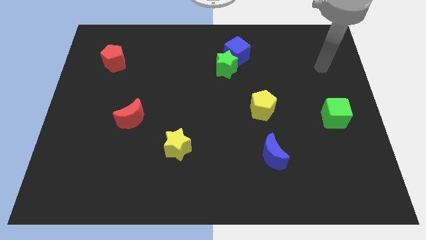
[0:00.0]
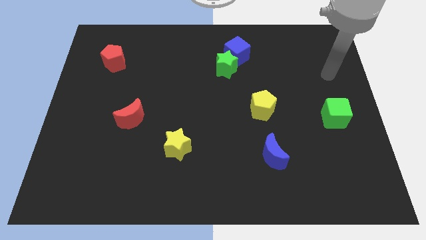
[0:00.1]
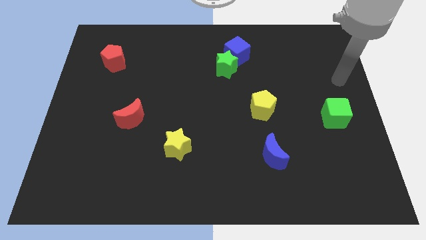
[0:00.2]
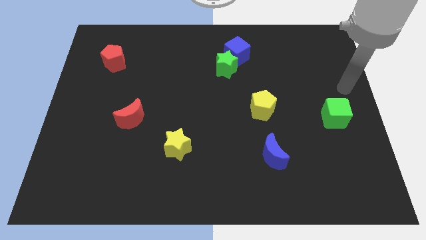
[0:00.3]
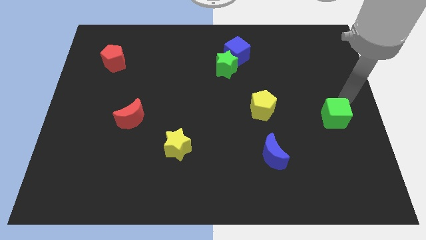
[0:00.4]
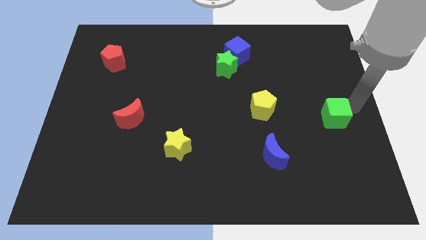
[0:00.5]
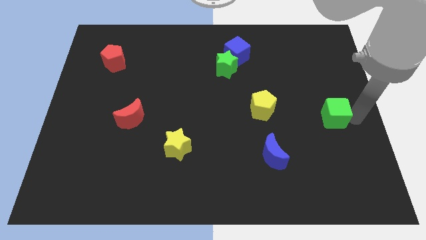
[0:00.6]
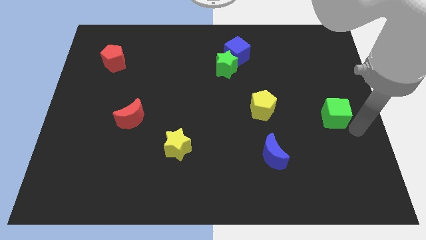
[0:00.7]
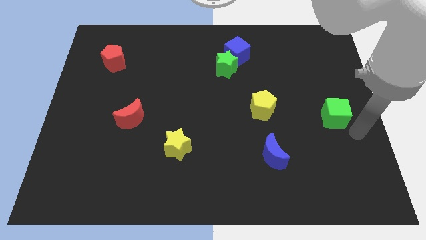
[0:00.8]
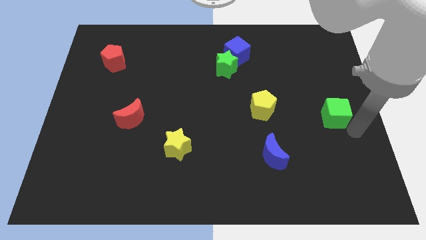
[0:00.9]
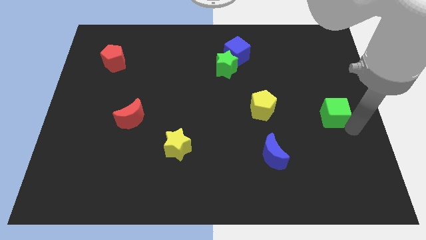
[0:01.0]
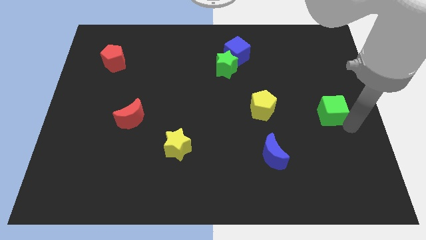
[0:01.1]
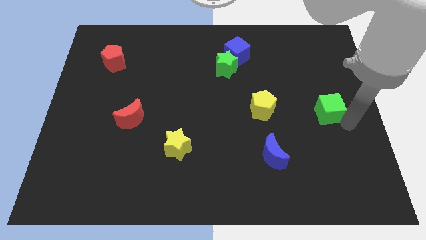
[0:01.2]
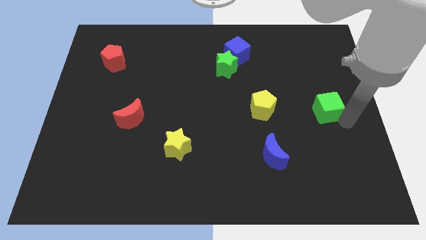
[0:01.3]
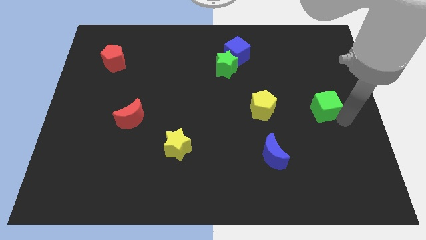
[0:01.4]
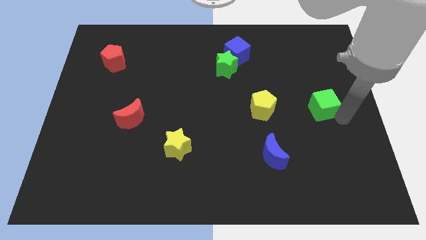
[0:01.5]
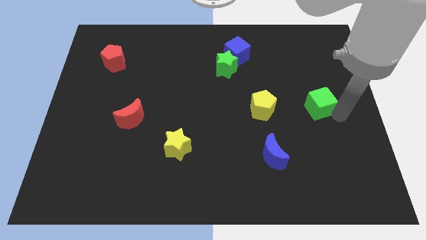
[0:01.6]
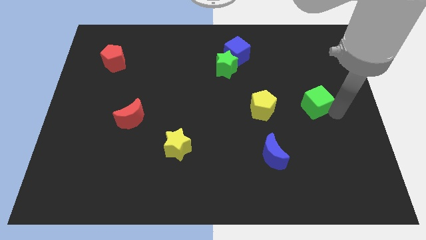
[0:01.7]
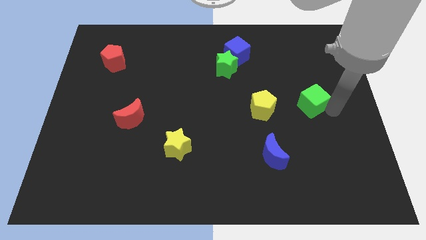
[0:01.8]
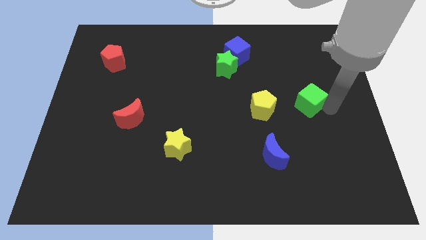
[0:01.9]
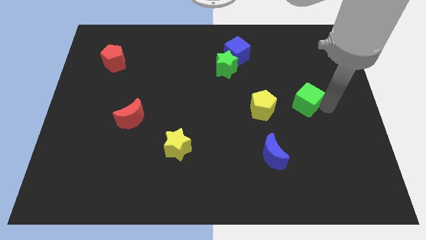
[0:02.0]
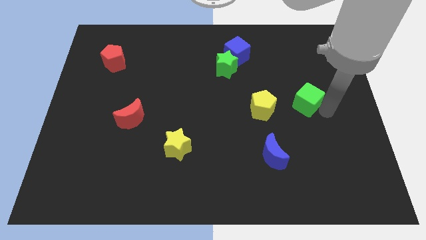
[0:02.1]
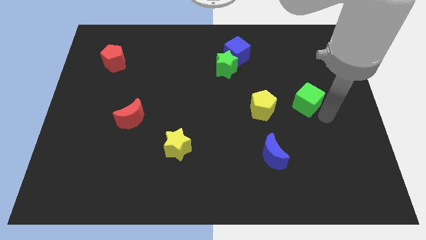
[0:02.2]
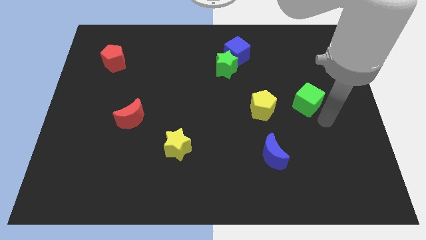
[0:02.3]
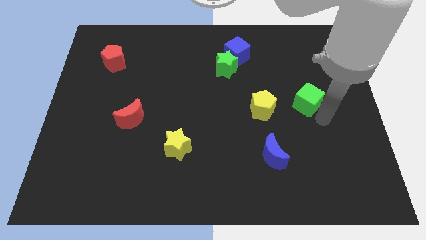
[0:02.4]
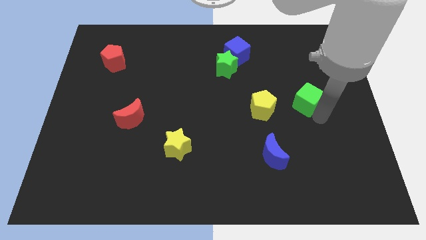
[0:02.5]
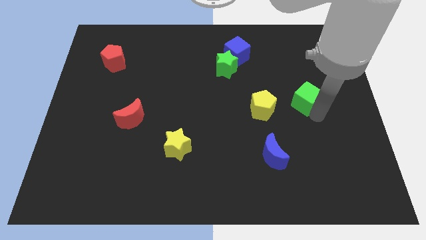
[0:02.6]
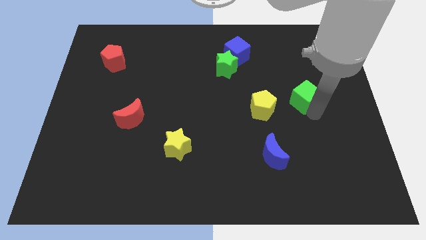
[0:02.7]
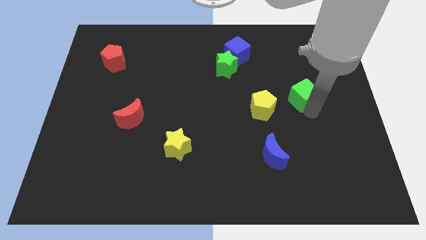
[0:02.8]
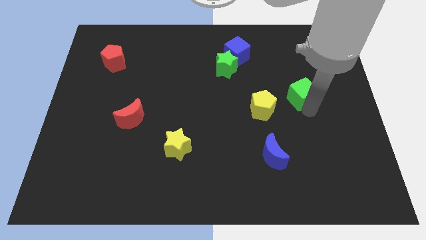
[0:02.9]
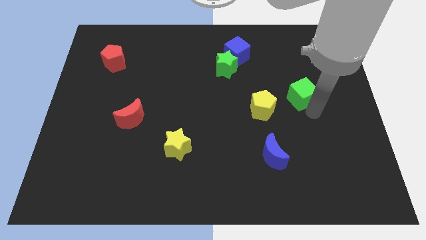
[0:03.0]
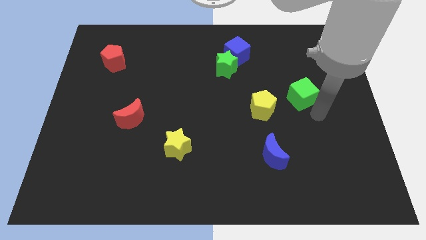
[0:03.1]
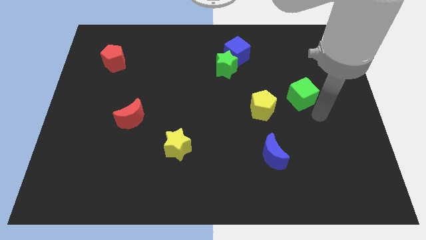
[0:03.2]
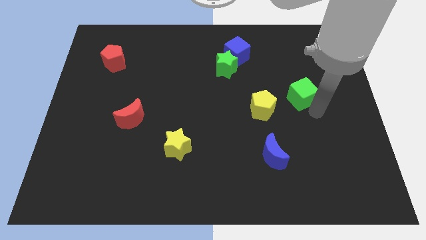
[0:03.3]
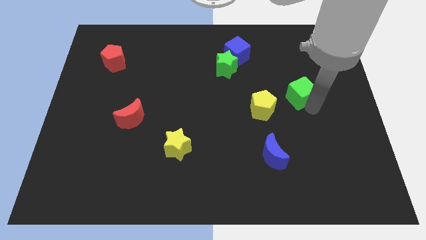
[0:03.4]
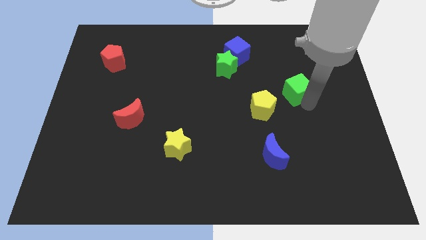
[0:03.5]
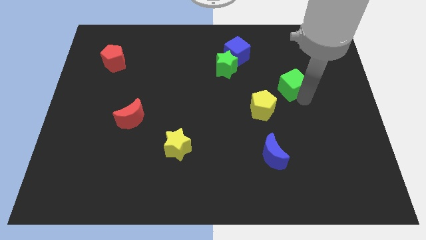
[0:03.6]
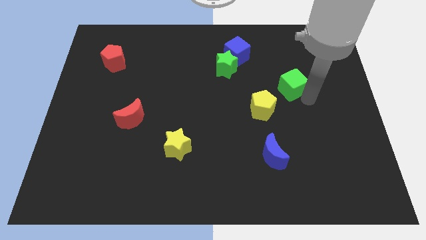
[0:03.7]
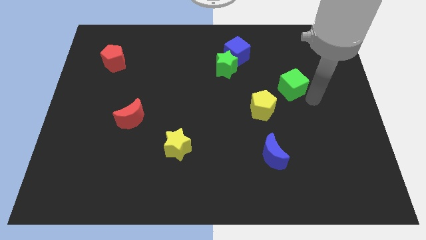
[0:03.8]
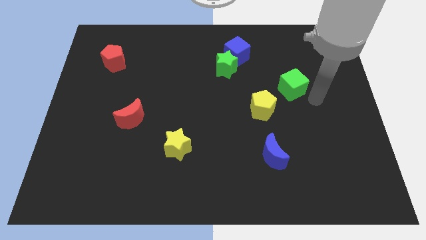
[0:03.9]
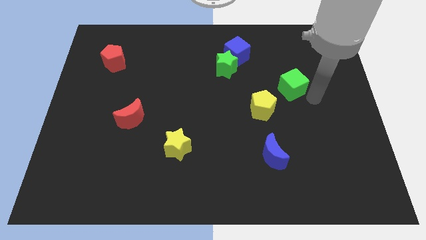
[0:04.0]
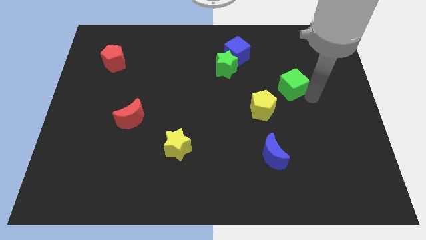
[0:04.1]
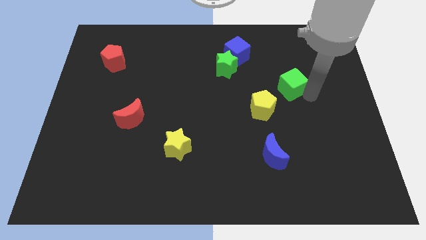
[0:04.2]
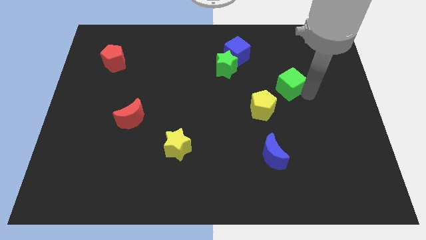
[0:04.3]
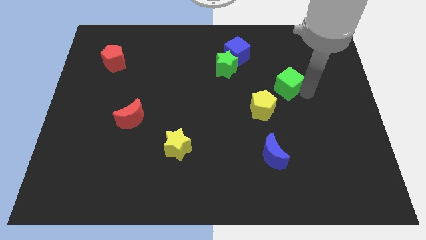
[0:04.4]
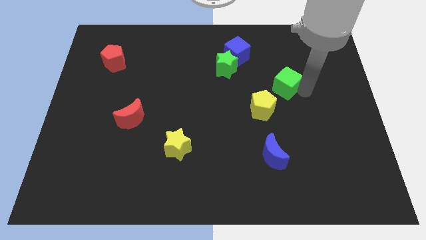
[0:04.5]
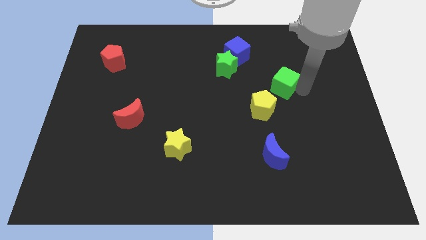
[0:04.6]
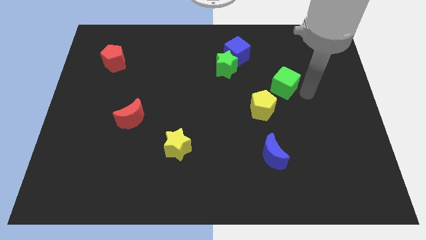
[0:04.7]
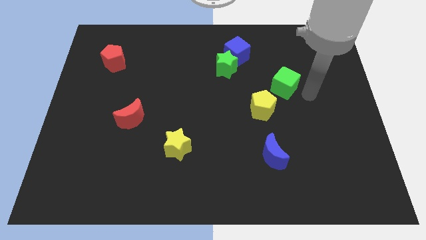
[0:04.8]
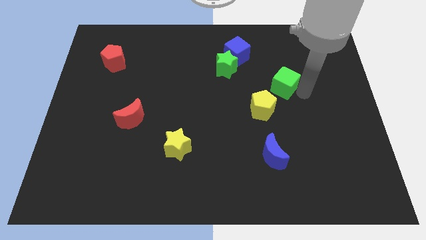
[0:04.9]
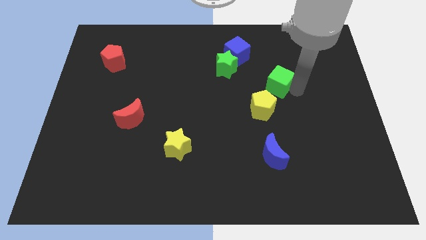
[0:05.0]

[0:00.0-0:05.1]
slide the green cube to the top side of the yellow pentagon

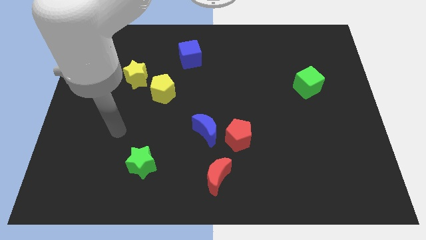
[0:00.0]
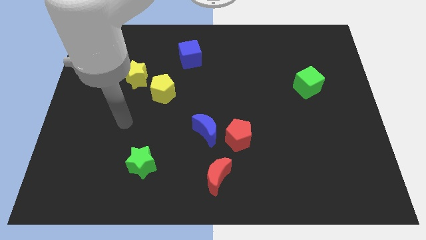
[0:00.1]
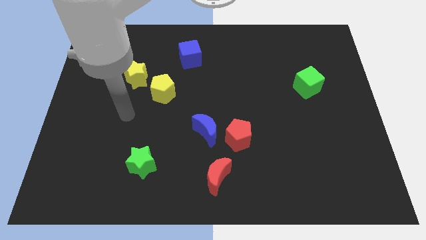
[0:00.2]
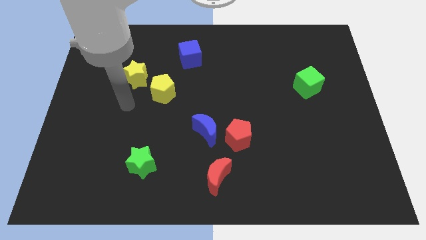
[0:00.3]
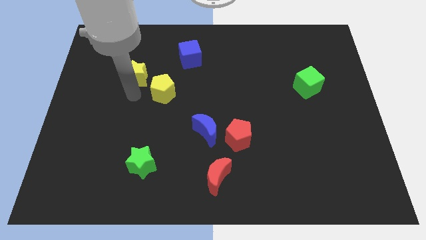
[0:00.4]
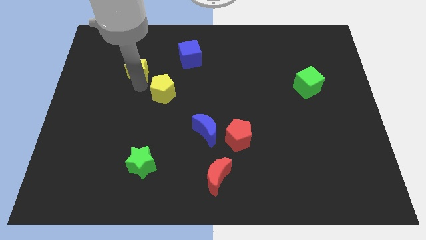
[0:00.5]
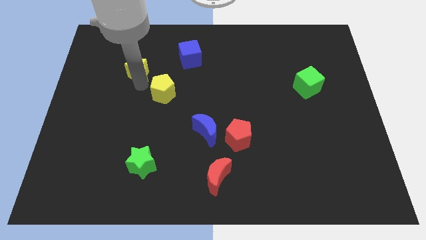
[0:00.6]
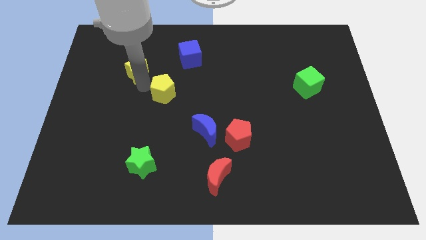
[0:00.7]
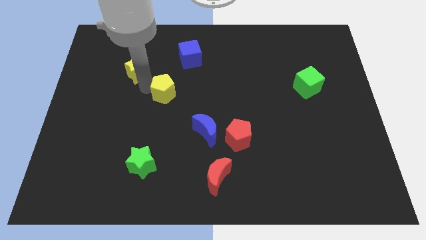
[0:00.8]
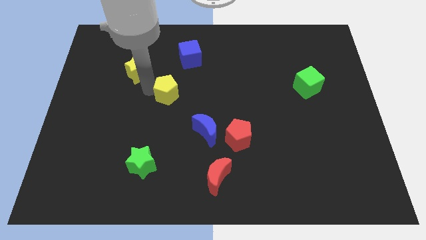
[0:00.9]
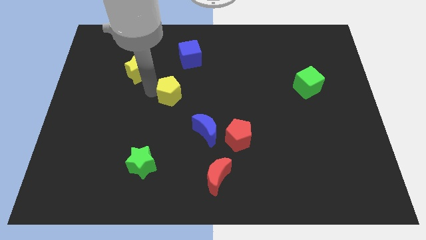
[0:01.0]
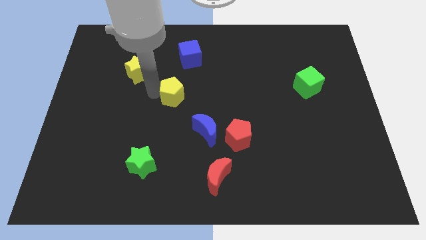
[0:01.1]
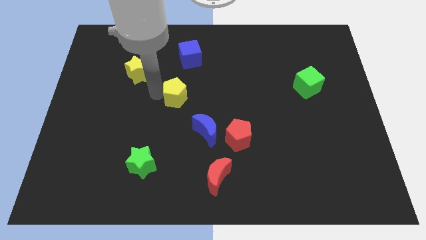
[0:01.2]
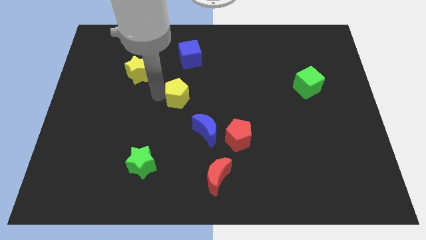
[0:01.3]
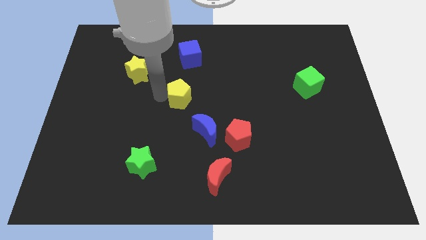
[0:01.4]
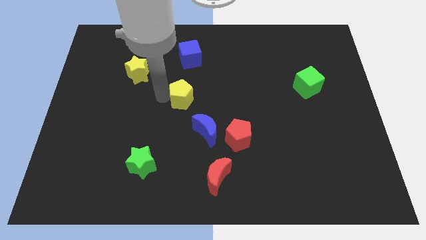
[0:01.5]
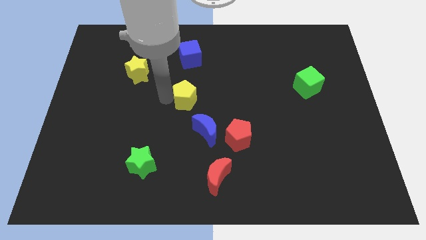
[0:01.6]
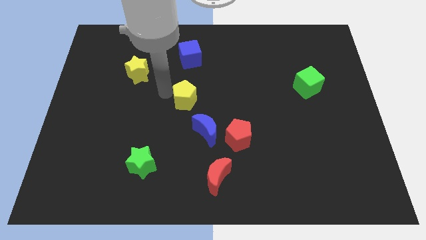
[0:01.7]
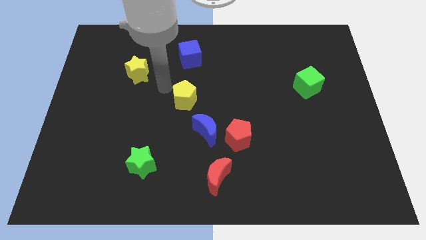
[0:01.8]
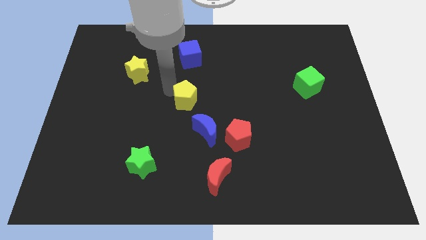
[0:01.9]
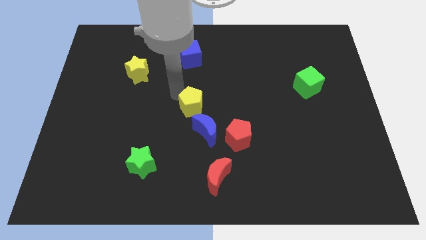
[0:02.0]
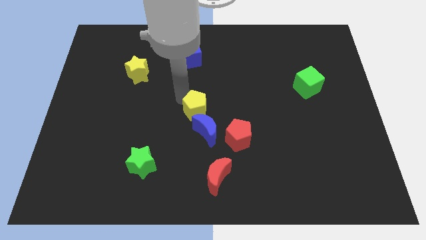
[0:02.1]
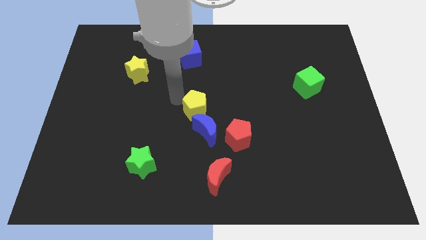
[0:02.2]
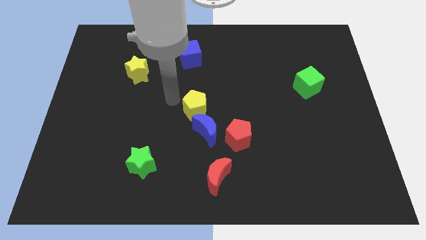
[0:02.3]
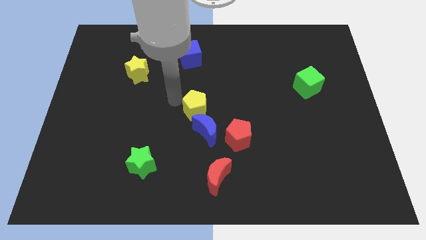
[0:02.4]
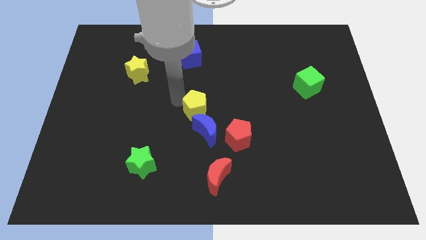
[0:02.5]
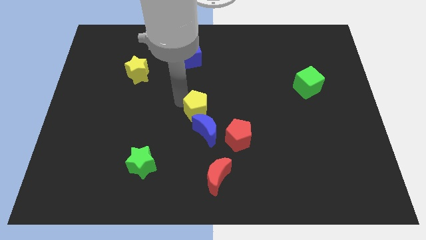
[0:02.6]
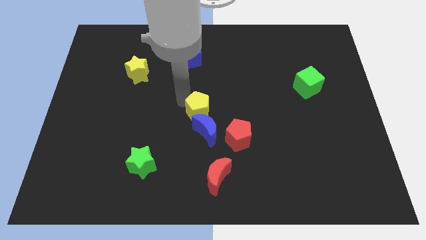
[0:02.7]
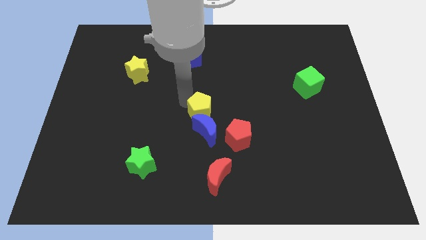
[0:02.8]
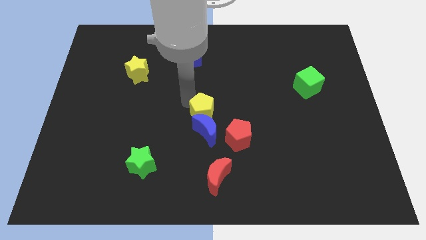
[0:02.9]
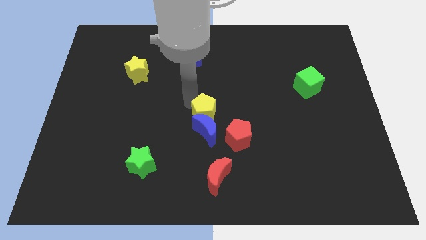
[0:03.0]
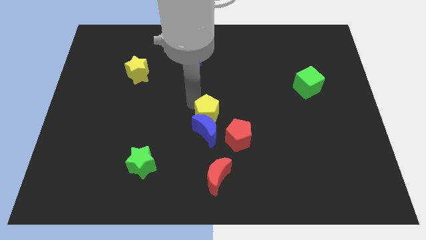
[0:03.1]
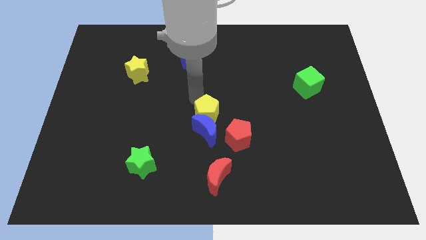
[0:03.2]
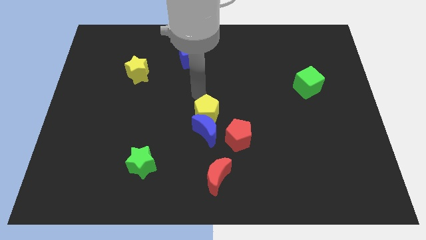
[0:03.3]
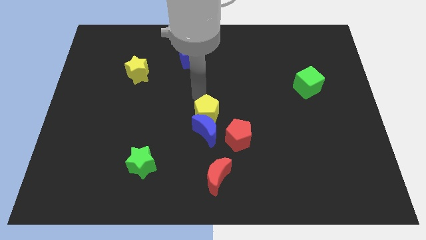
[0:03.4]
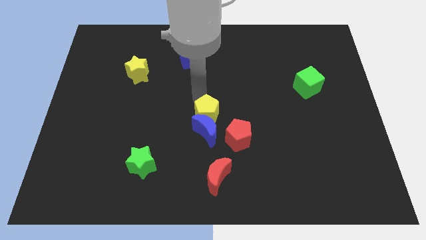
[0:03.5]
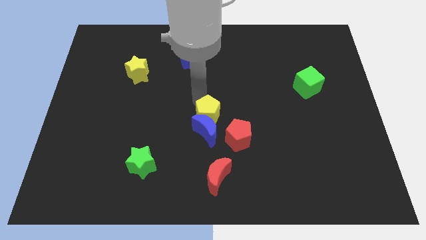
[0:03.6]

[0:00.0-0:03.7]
push the yellow pentagon to the top of the red moon
